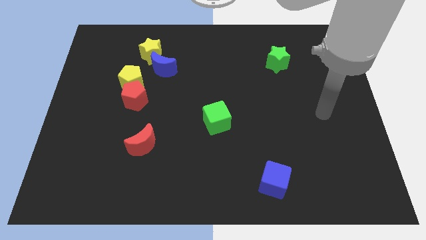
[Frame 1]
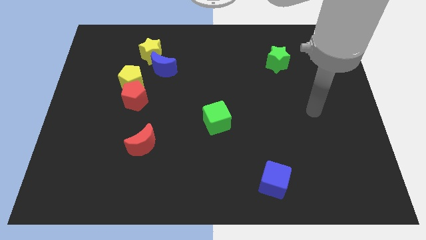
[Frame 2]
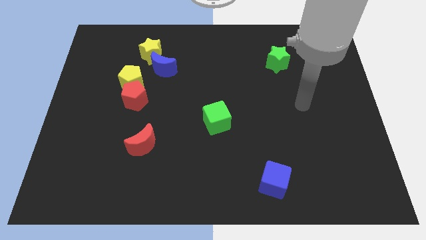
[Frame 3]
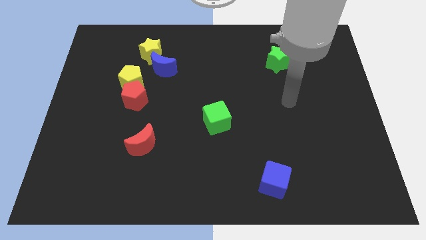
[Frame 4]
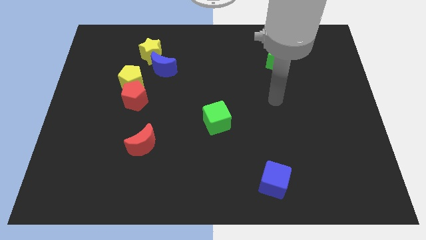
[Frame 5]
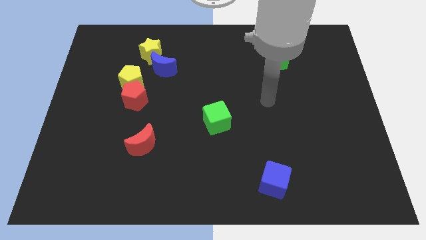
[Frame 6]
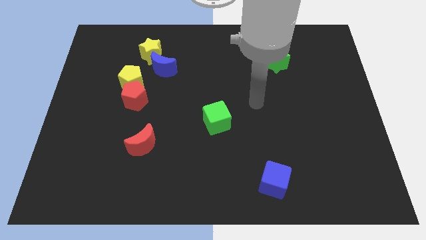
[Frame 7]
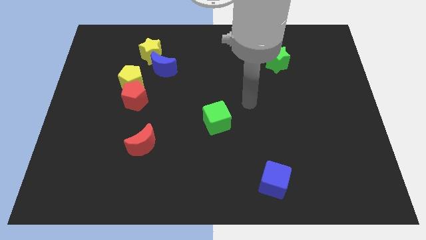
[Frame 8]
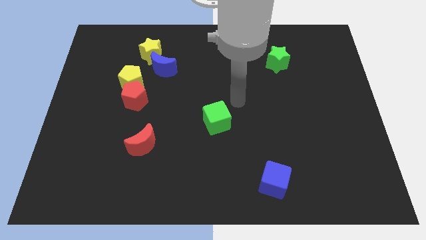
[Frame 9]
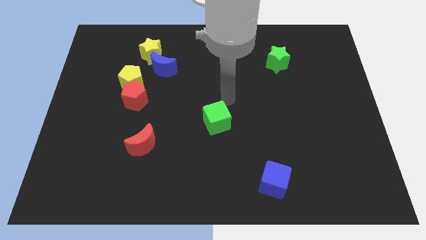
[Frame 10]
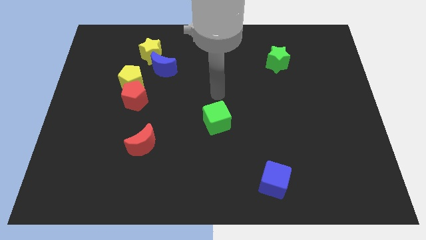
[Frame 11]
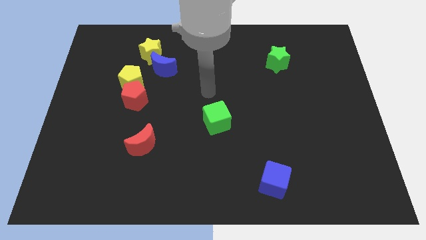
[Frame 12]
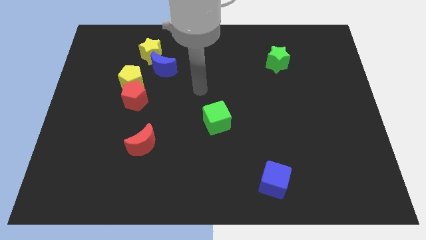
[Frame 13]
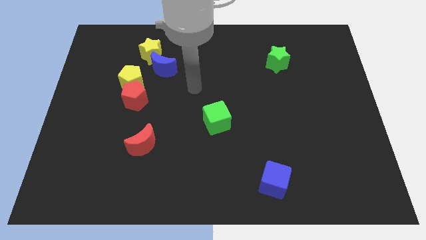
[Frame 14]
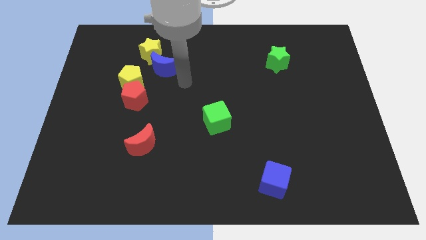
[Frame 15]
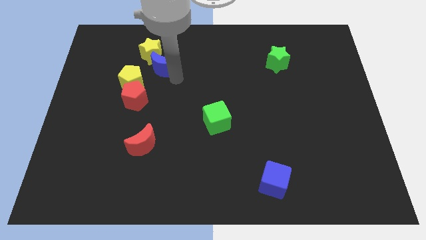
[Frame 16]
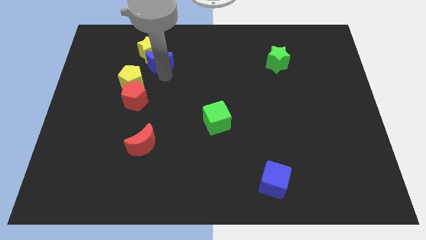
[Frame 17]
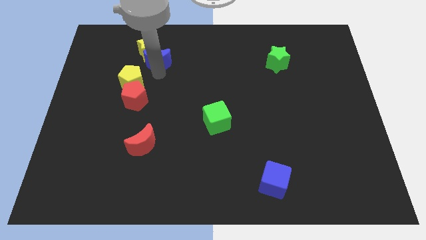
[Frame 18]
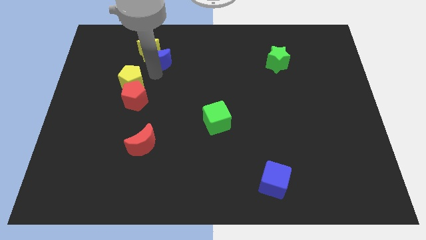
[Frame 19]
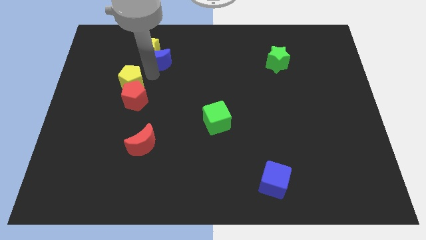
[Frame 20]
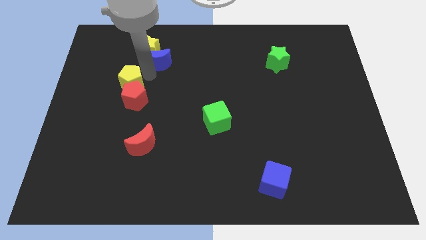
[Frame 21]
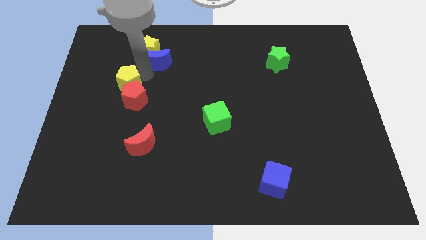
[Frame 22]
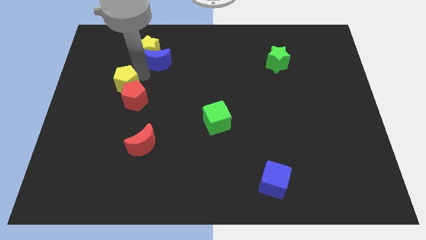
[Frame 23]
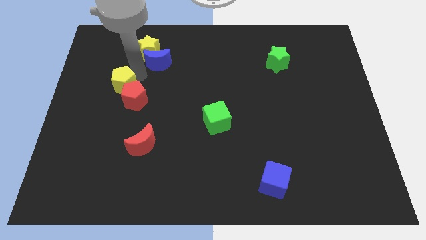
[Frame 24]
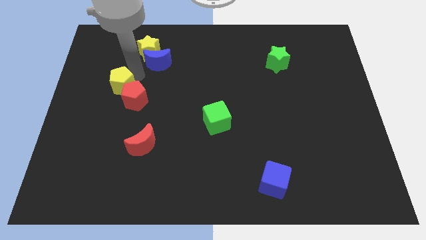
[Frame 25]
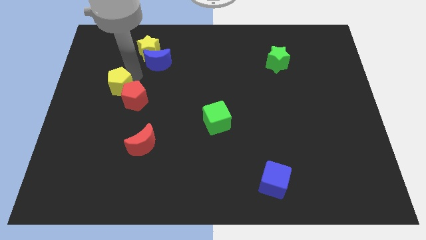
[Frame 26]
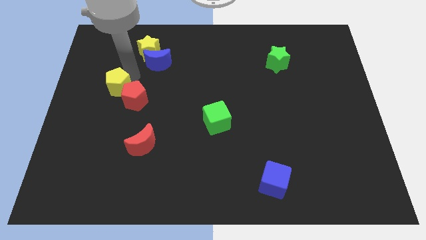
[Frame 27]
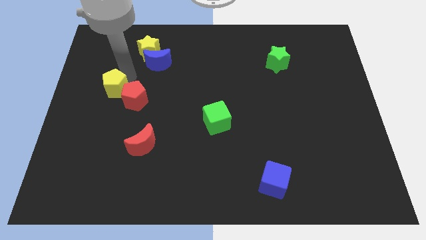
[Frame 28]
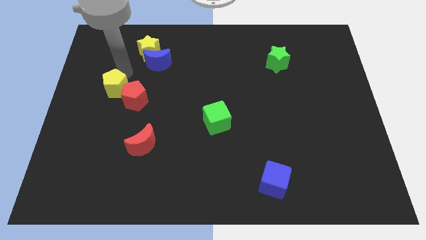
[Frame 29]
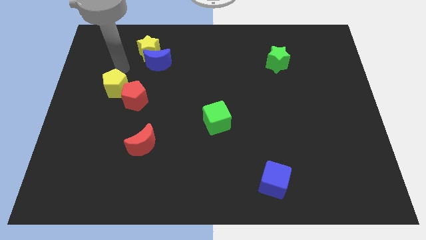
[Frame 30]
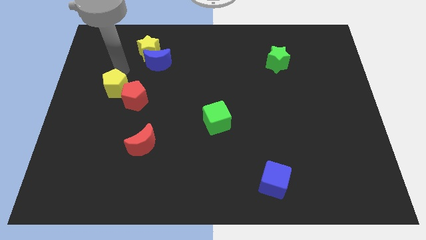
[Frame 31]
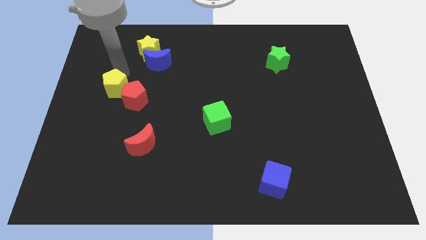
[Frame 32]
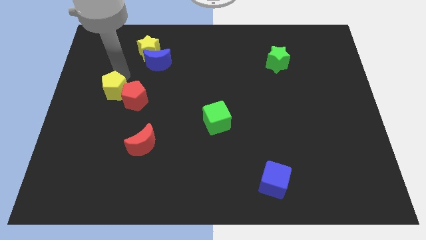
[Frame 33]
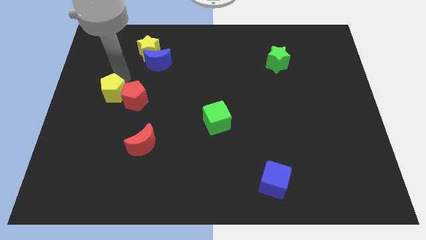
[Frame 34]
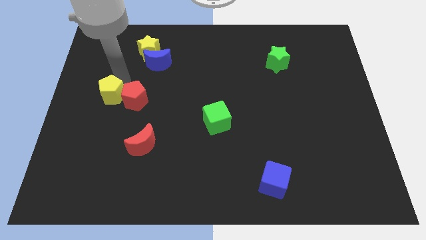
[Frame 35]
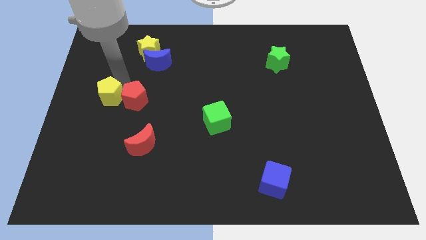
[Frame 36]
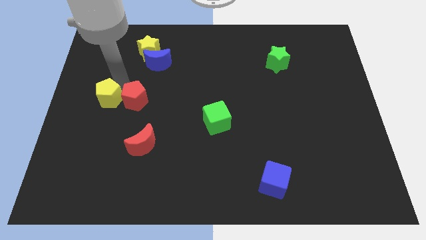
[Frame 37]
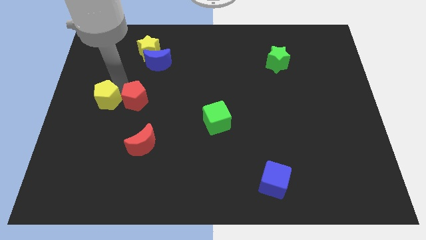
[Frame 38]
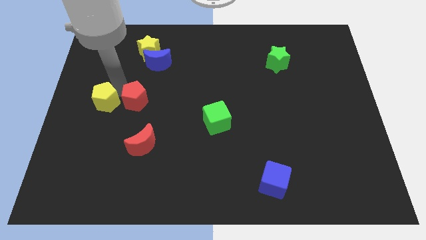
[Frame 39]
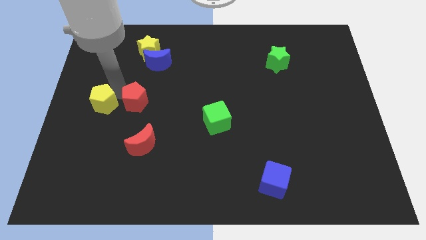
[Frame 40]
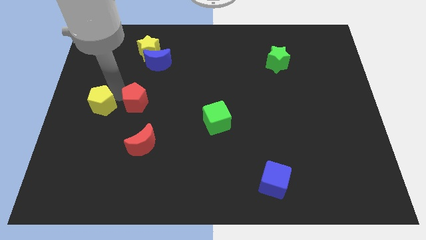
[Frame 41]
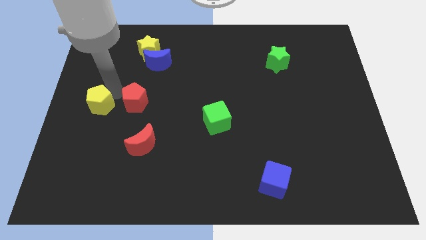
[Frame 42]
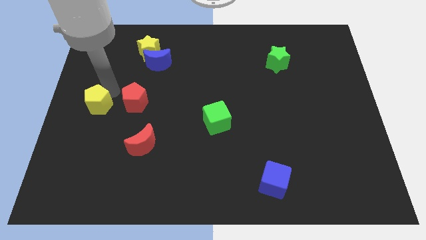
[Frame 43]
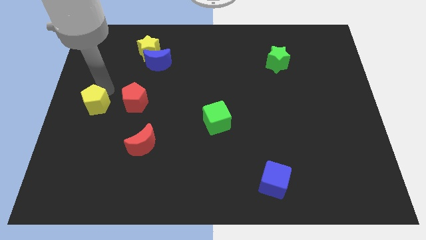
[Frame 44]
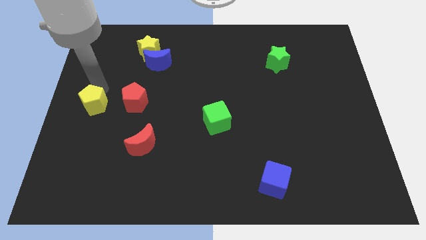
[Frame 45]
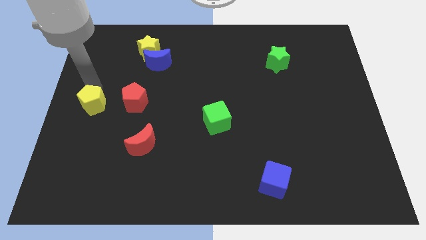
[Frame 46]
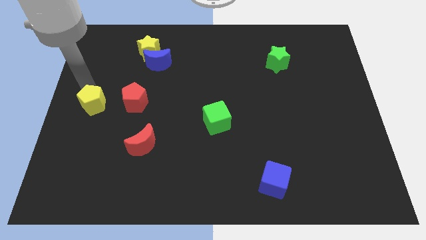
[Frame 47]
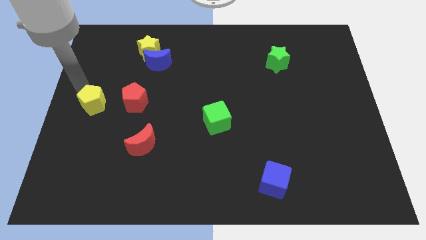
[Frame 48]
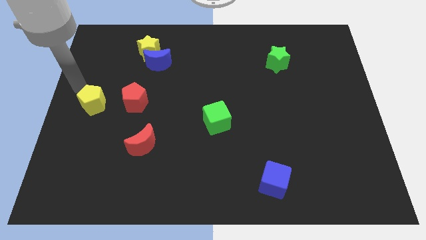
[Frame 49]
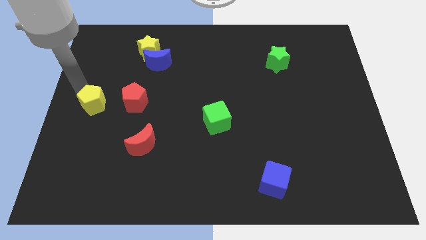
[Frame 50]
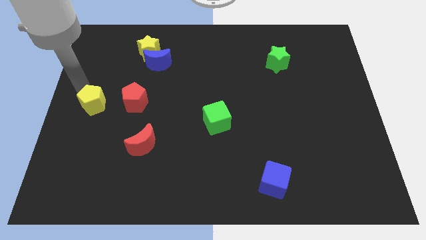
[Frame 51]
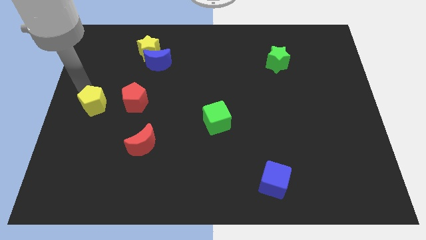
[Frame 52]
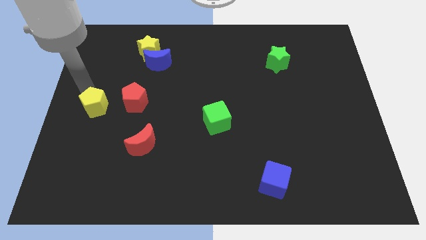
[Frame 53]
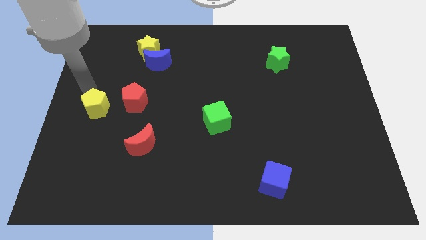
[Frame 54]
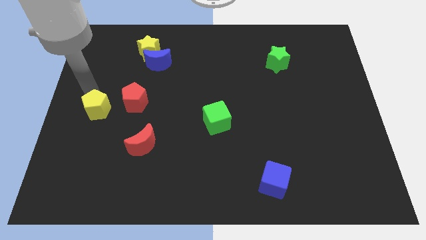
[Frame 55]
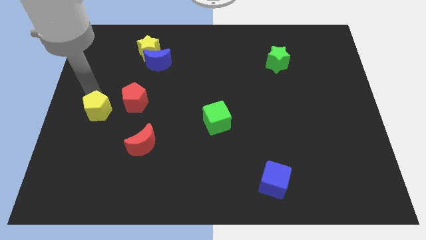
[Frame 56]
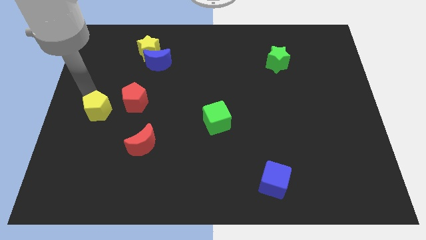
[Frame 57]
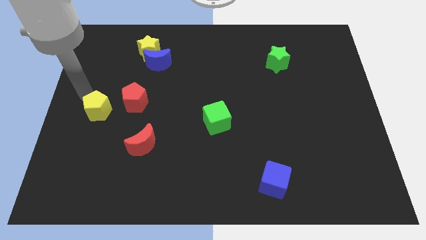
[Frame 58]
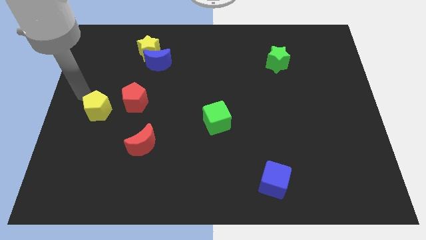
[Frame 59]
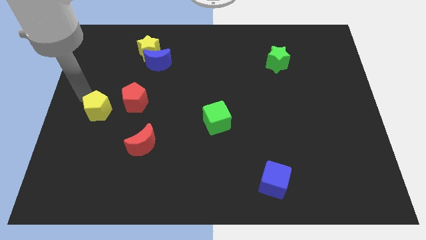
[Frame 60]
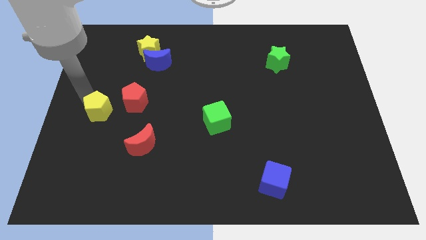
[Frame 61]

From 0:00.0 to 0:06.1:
move the yellow pentagon down a bit

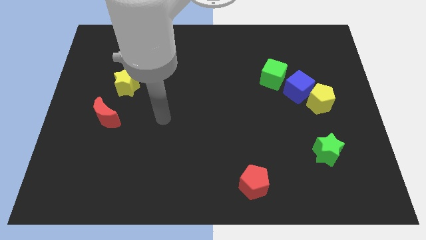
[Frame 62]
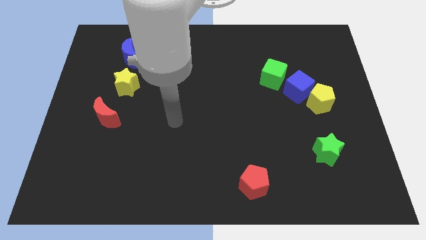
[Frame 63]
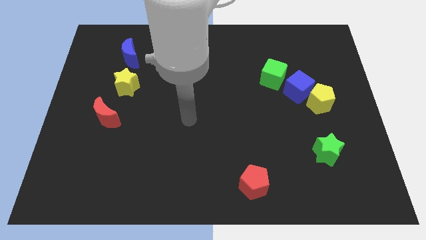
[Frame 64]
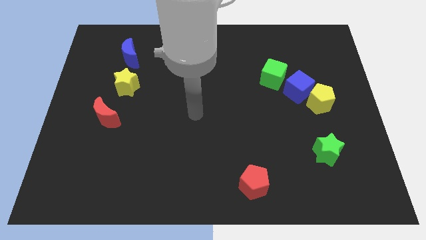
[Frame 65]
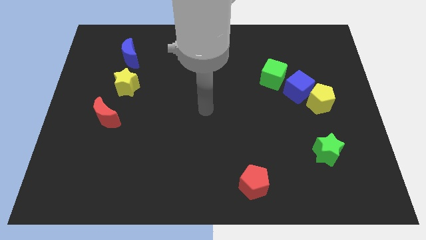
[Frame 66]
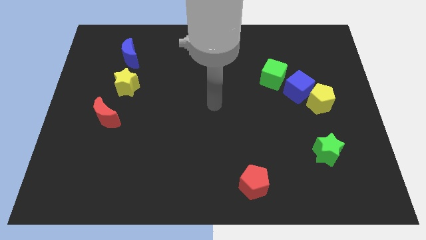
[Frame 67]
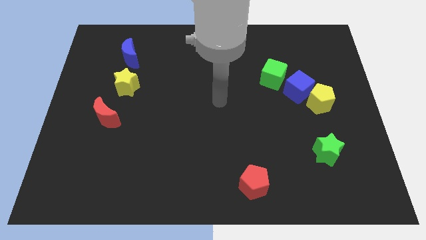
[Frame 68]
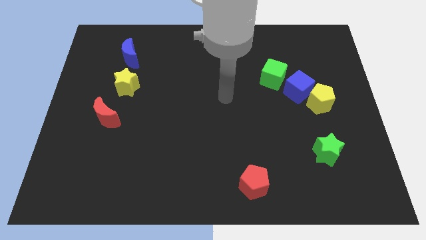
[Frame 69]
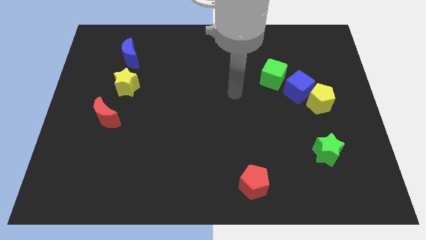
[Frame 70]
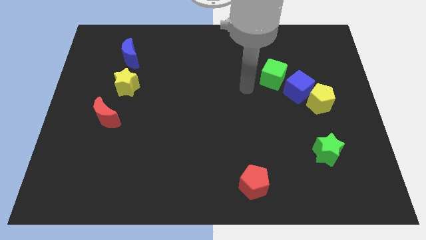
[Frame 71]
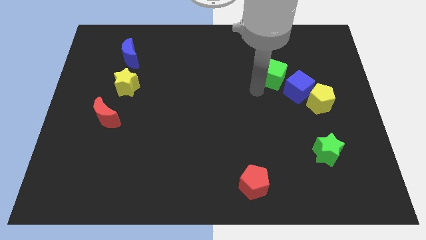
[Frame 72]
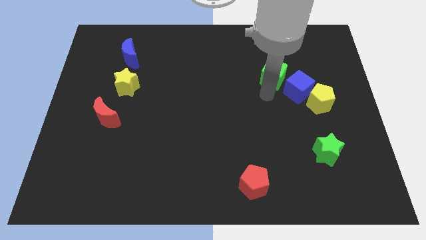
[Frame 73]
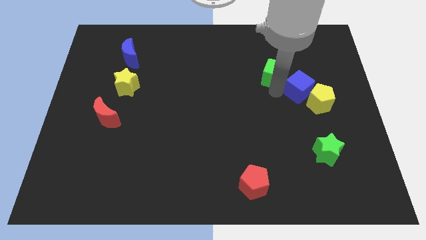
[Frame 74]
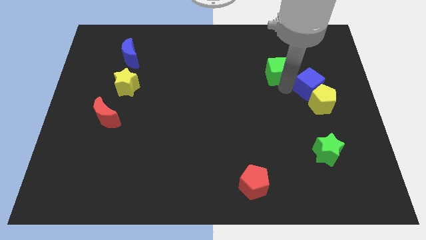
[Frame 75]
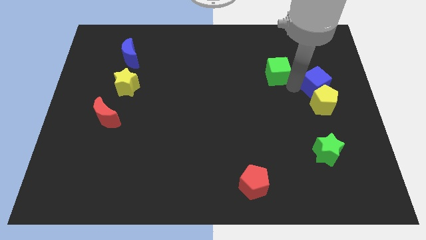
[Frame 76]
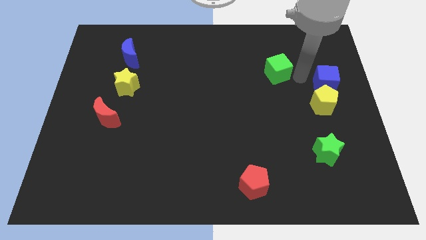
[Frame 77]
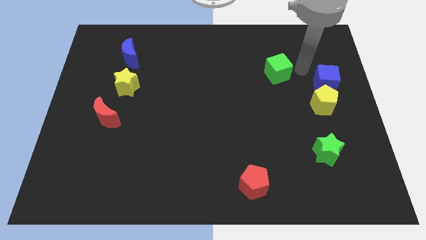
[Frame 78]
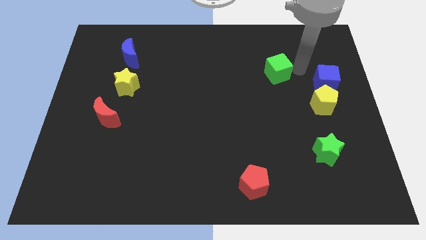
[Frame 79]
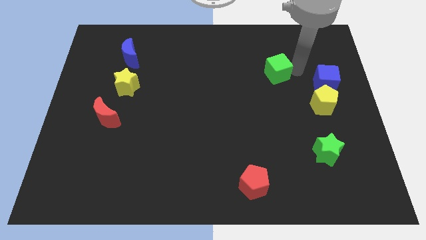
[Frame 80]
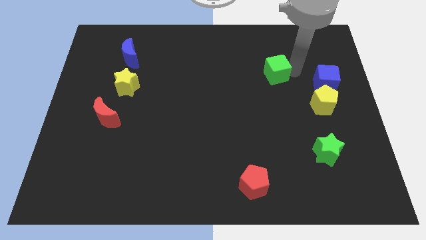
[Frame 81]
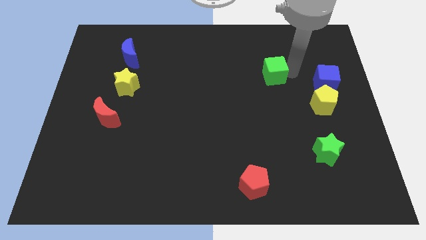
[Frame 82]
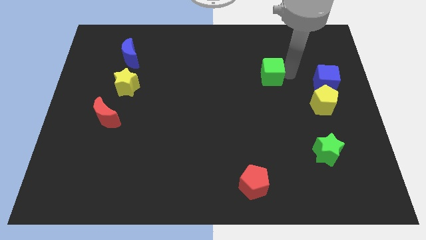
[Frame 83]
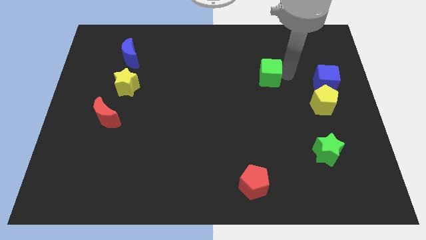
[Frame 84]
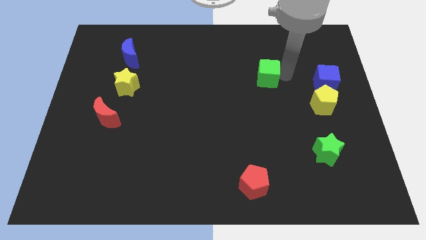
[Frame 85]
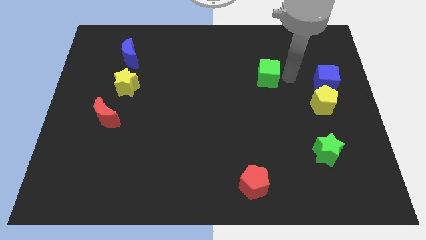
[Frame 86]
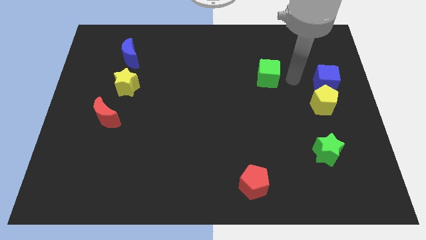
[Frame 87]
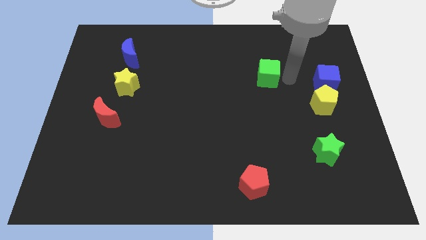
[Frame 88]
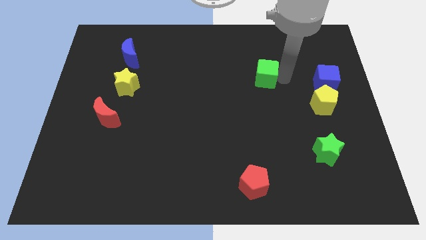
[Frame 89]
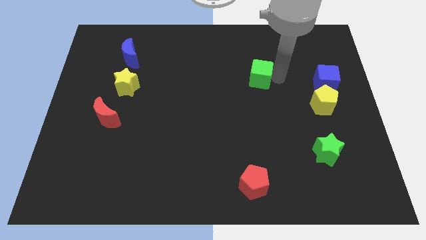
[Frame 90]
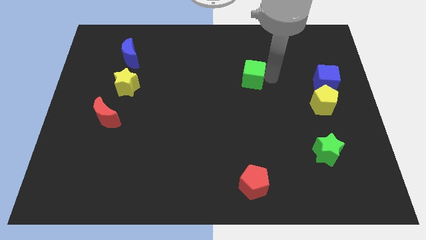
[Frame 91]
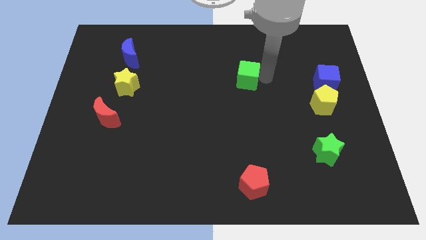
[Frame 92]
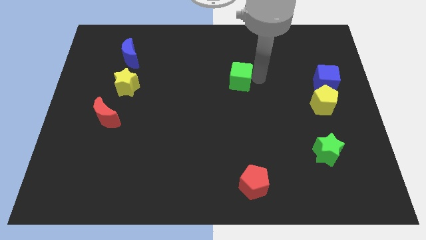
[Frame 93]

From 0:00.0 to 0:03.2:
slightly move the green cube left
